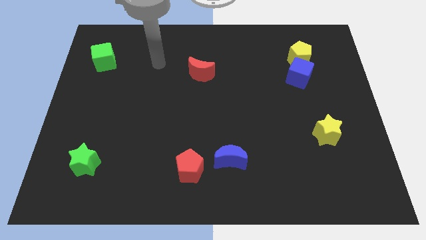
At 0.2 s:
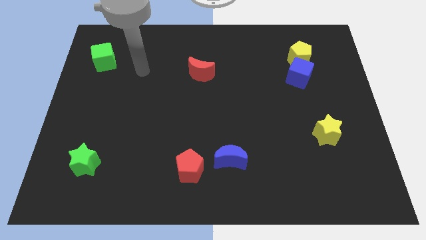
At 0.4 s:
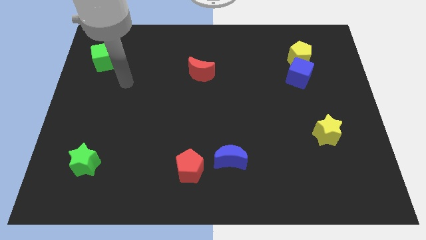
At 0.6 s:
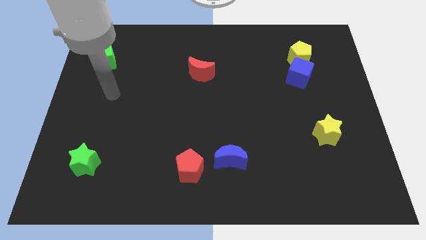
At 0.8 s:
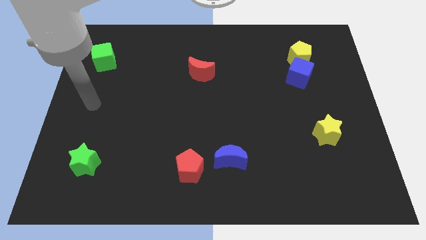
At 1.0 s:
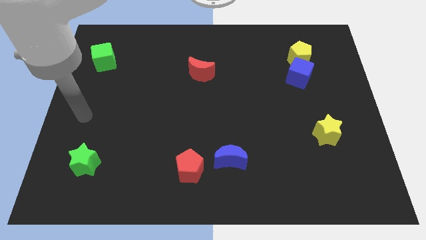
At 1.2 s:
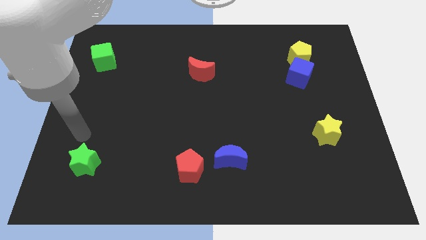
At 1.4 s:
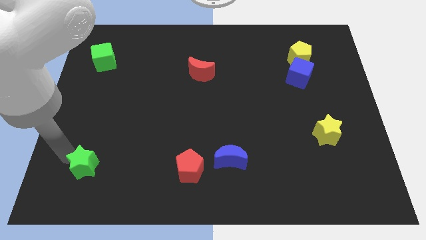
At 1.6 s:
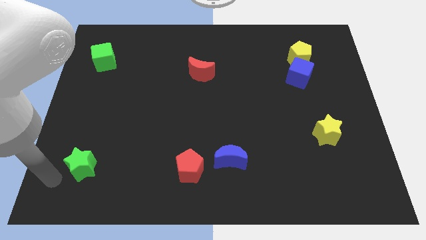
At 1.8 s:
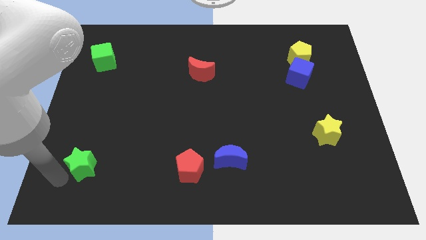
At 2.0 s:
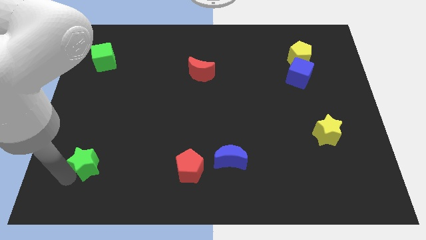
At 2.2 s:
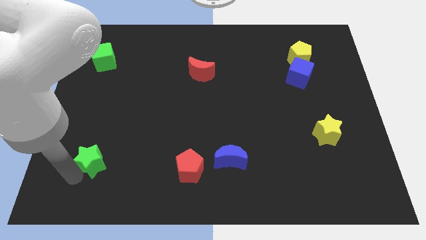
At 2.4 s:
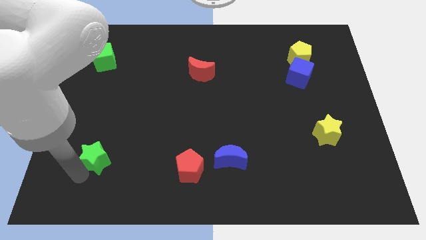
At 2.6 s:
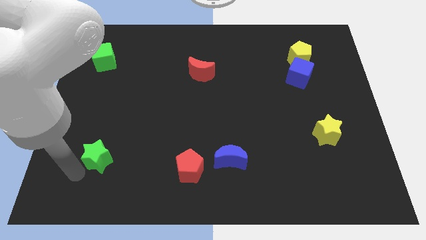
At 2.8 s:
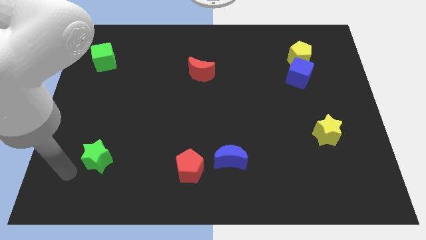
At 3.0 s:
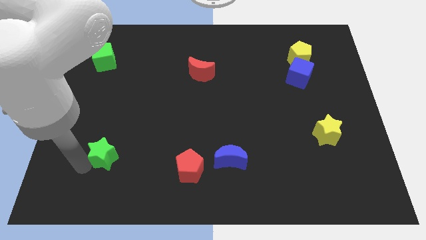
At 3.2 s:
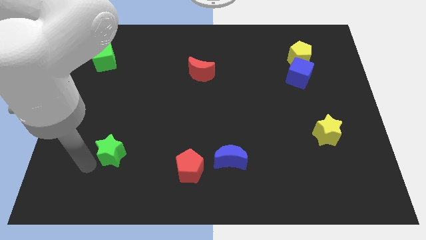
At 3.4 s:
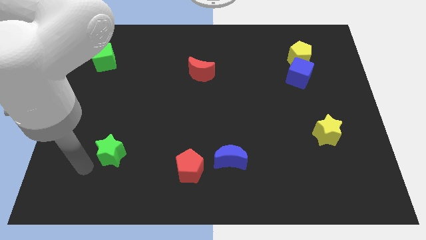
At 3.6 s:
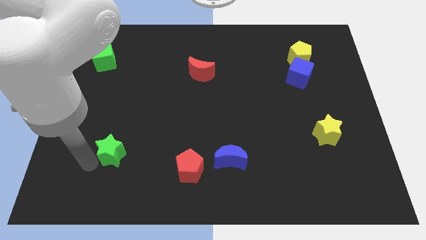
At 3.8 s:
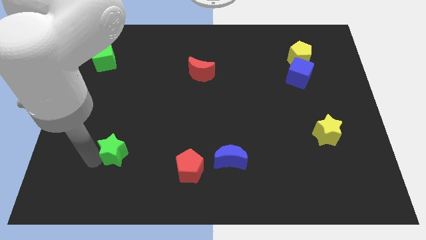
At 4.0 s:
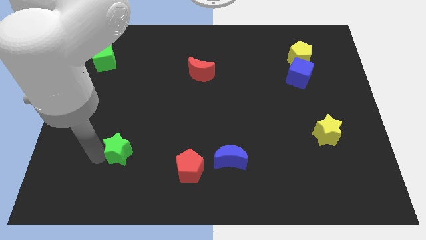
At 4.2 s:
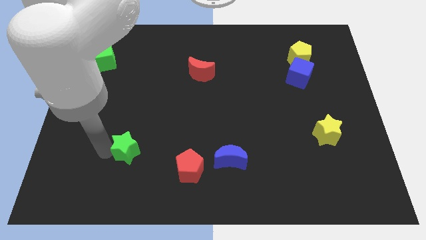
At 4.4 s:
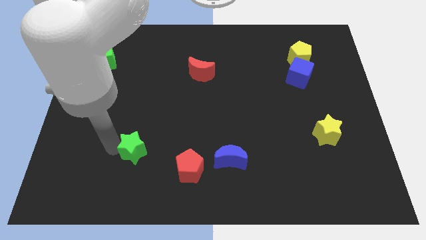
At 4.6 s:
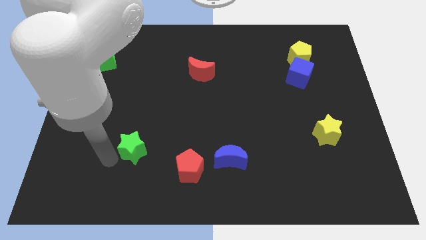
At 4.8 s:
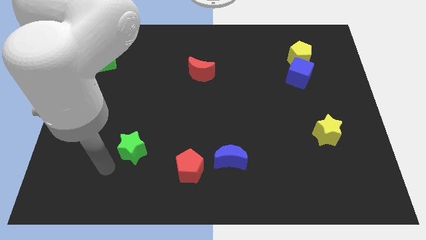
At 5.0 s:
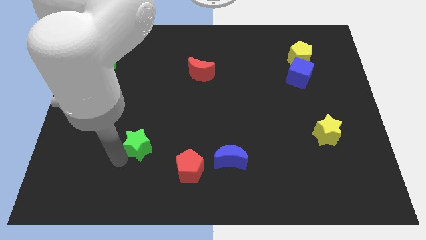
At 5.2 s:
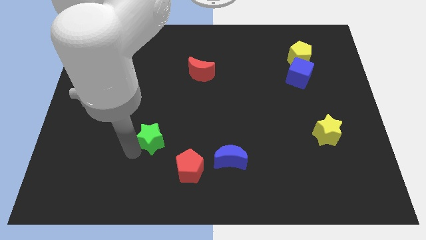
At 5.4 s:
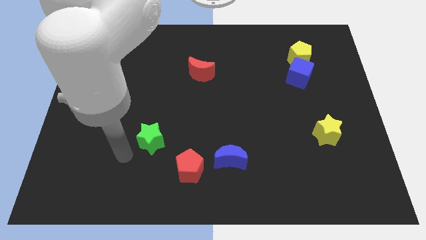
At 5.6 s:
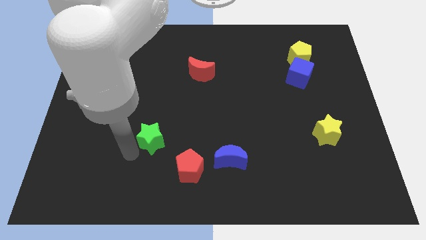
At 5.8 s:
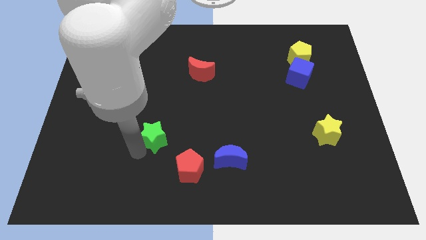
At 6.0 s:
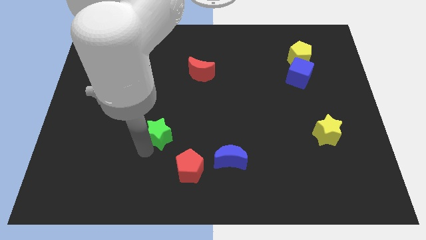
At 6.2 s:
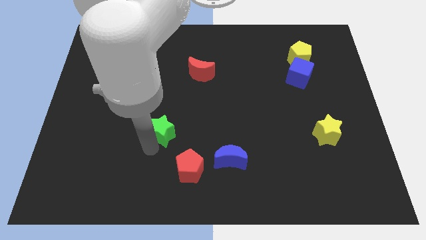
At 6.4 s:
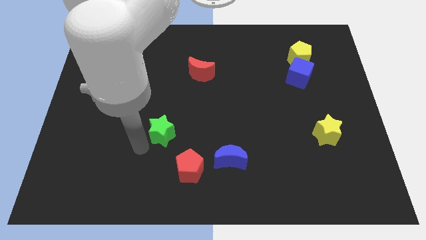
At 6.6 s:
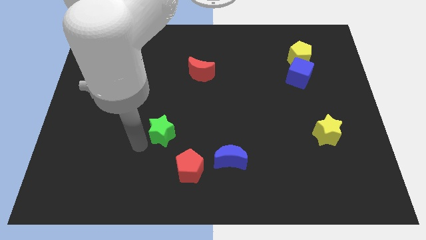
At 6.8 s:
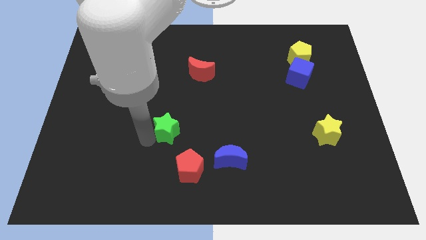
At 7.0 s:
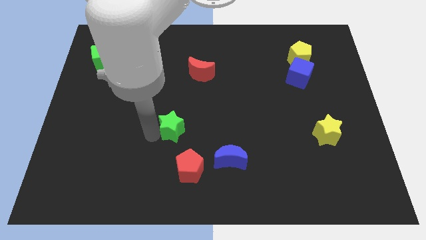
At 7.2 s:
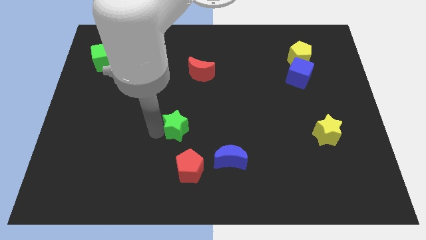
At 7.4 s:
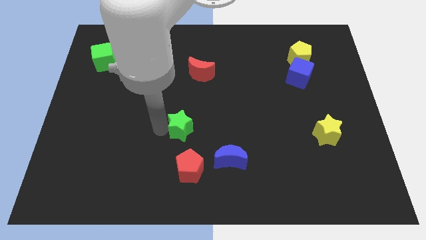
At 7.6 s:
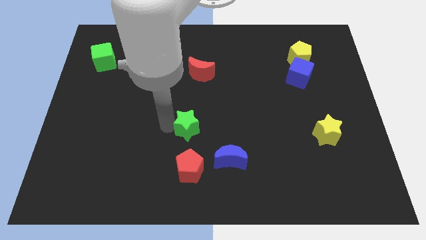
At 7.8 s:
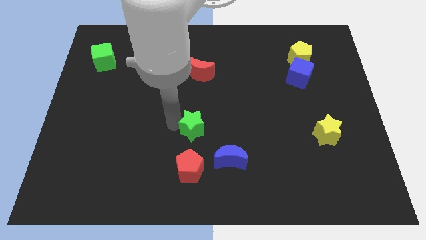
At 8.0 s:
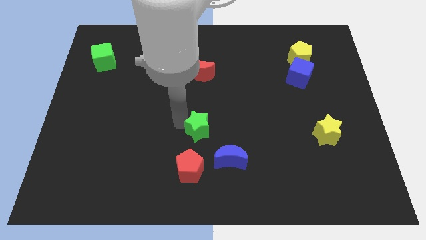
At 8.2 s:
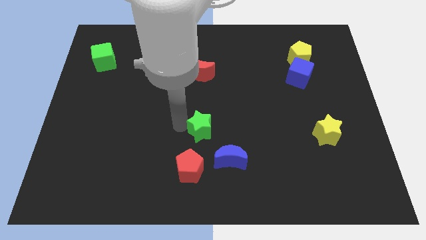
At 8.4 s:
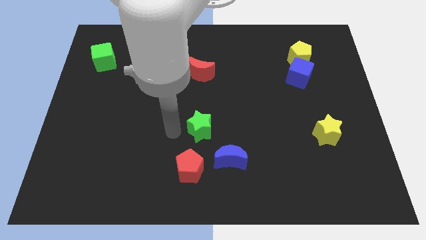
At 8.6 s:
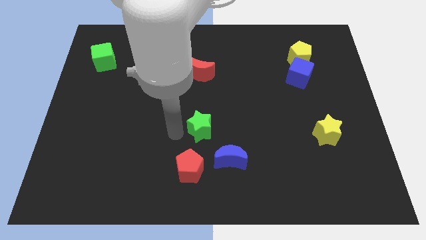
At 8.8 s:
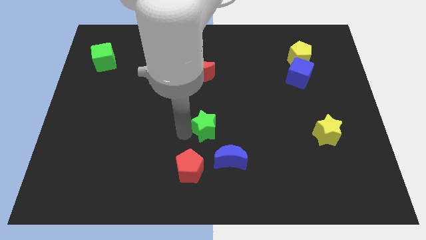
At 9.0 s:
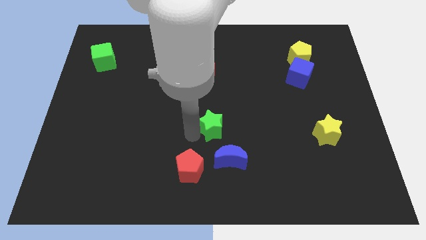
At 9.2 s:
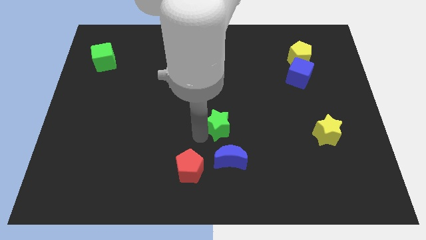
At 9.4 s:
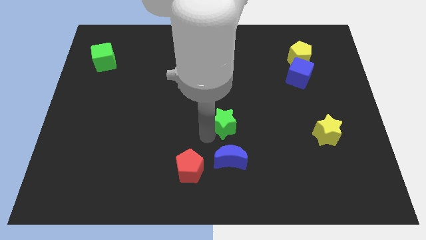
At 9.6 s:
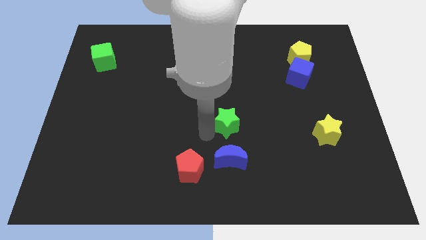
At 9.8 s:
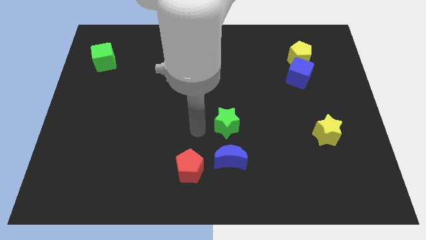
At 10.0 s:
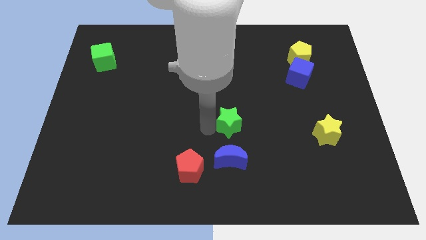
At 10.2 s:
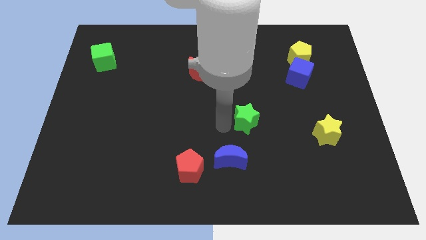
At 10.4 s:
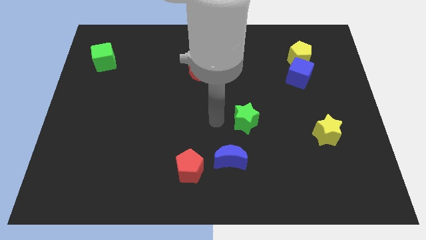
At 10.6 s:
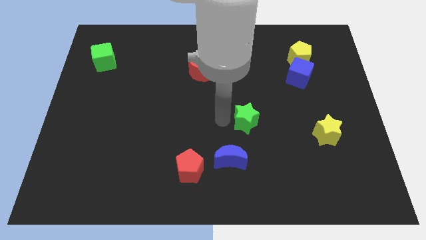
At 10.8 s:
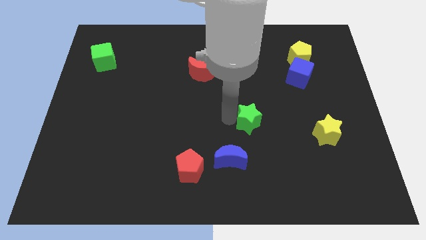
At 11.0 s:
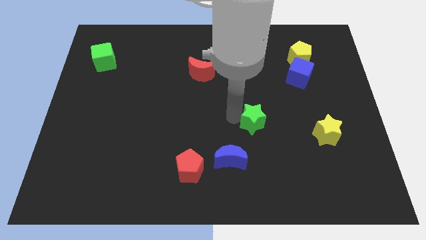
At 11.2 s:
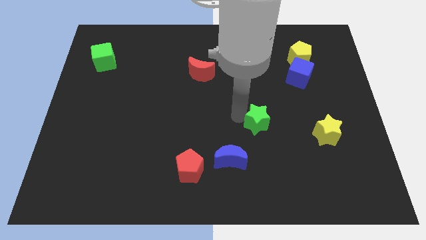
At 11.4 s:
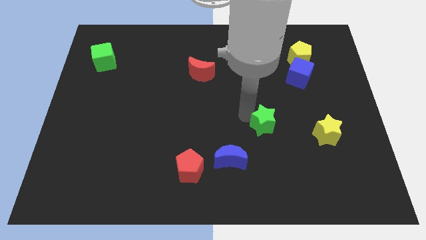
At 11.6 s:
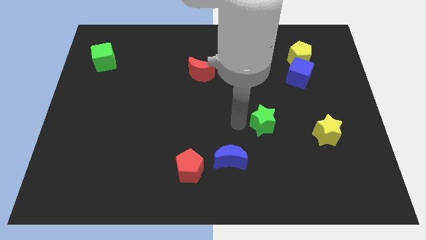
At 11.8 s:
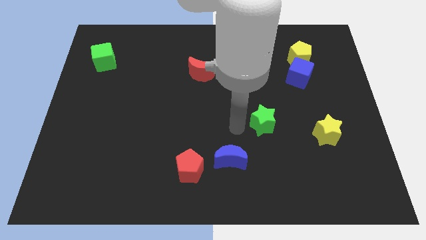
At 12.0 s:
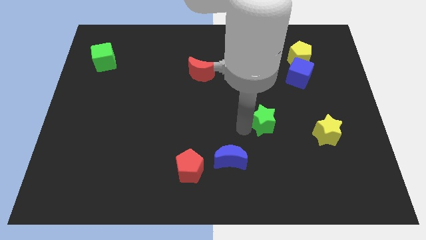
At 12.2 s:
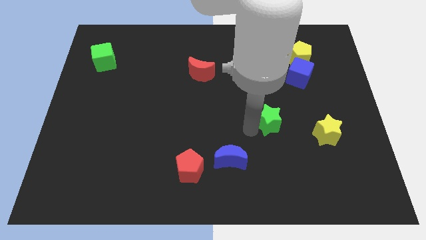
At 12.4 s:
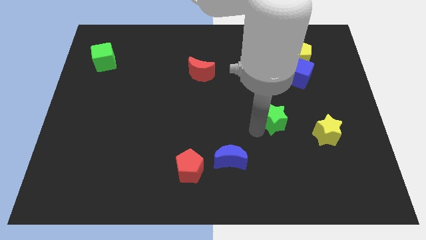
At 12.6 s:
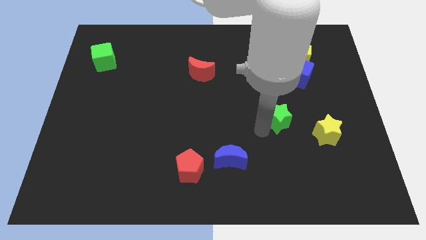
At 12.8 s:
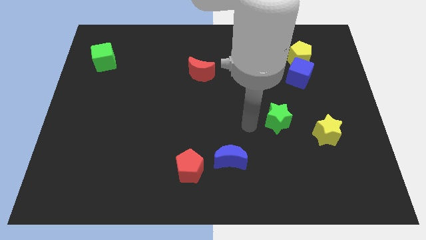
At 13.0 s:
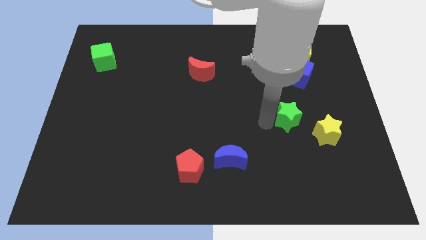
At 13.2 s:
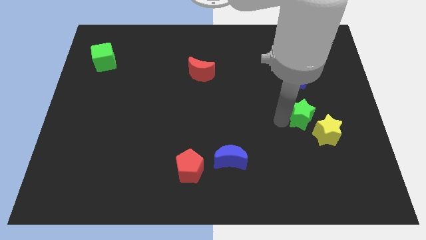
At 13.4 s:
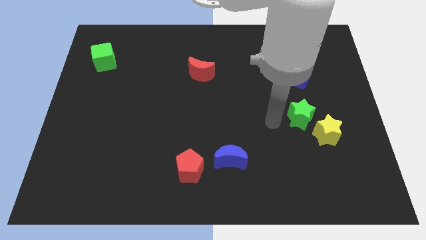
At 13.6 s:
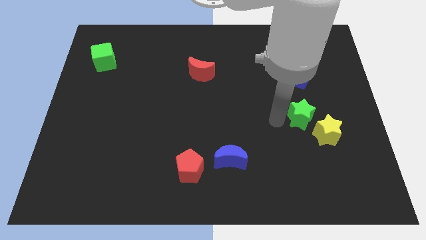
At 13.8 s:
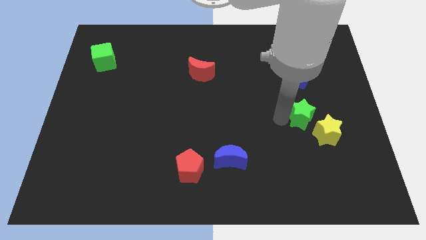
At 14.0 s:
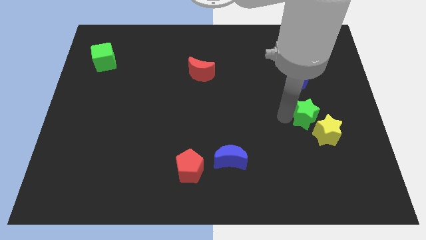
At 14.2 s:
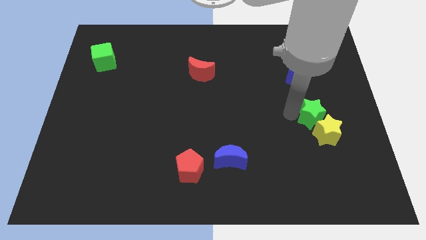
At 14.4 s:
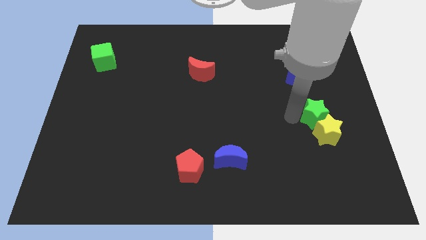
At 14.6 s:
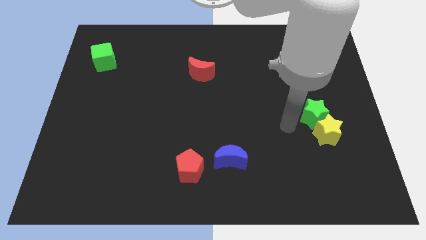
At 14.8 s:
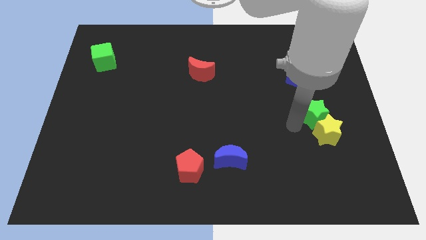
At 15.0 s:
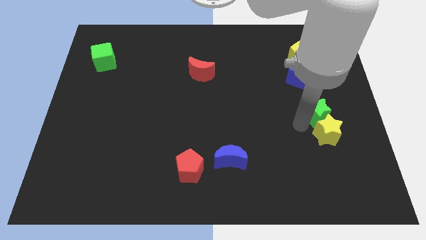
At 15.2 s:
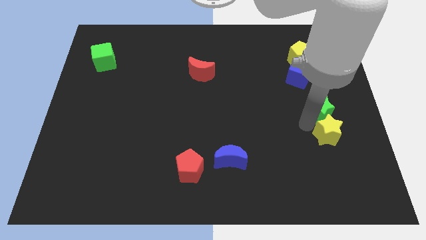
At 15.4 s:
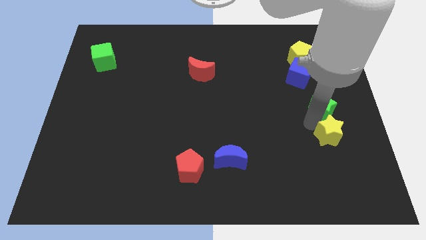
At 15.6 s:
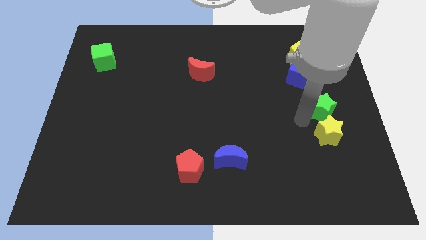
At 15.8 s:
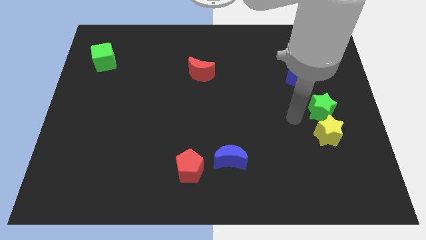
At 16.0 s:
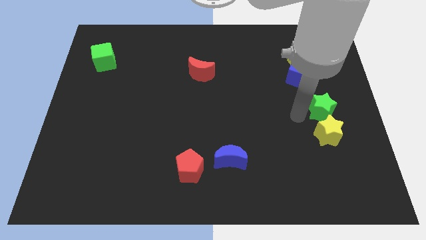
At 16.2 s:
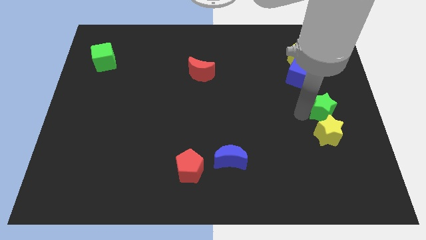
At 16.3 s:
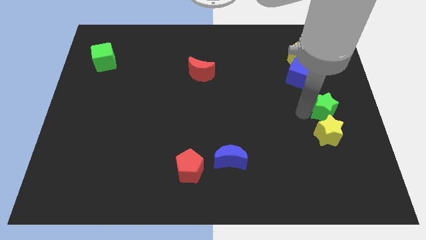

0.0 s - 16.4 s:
put the green star to the right side
